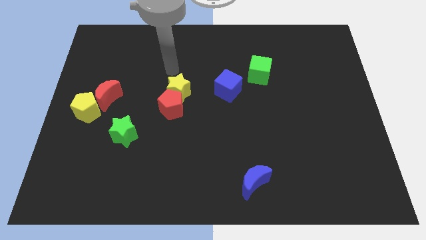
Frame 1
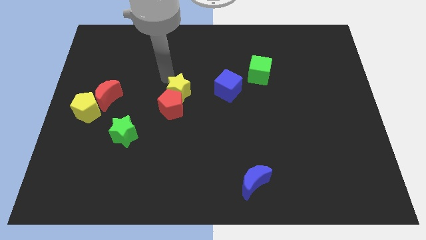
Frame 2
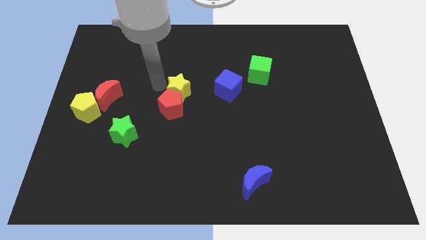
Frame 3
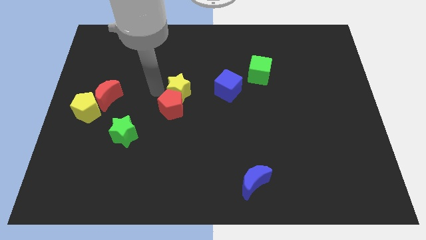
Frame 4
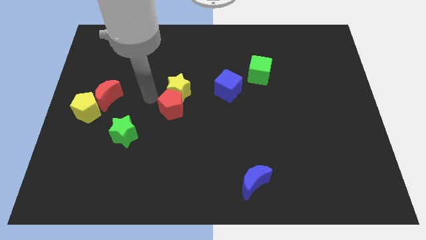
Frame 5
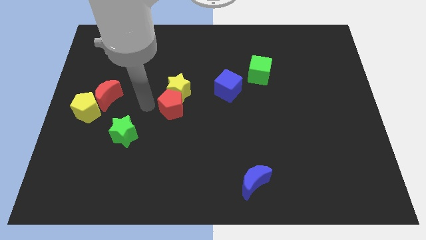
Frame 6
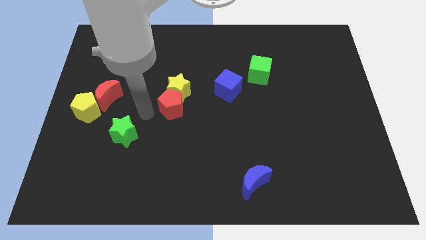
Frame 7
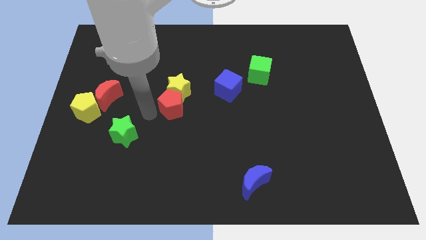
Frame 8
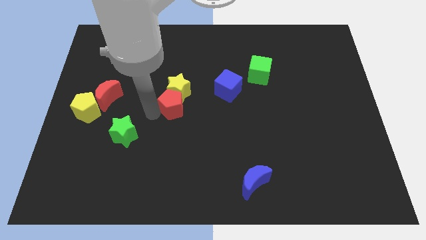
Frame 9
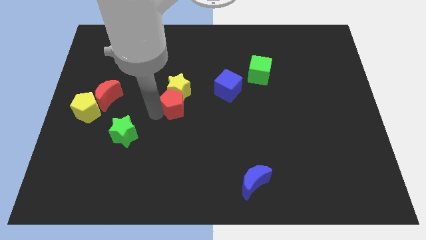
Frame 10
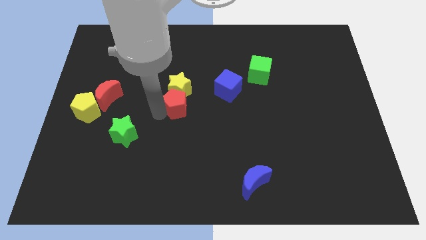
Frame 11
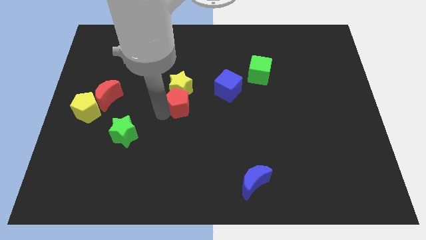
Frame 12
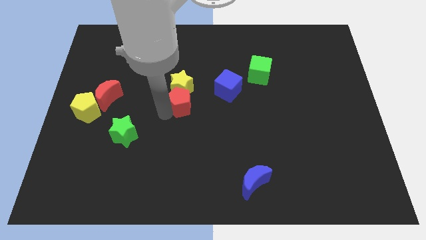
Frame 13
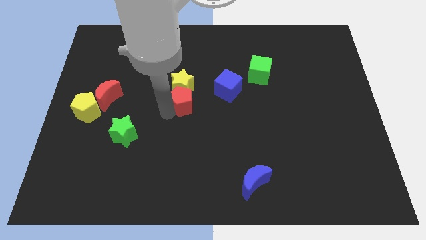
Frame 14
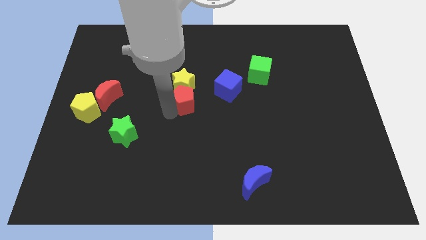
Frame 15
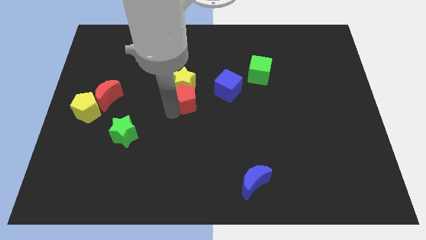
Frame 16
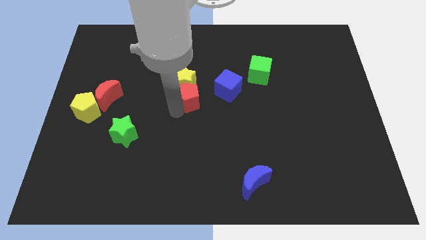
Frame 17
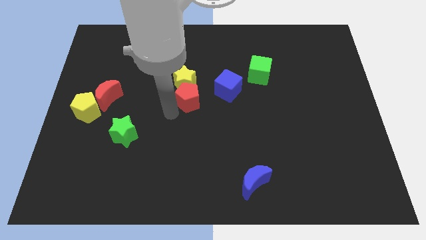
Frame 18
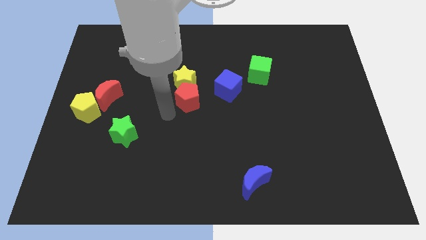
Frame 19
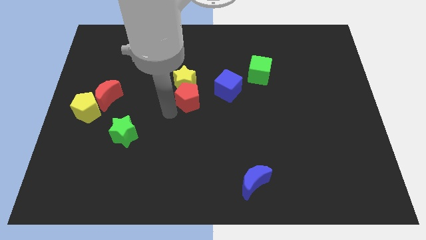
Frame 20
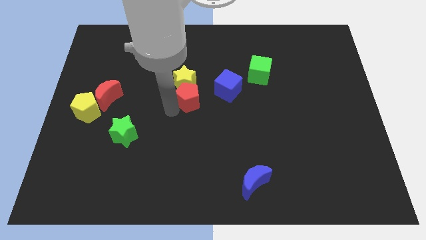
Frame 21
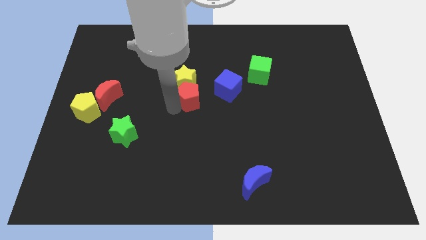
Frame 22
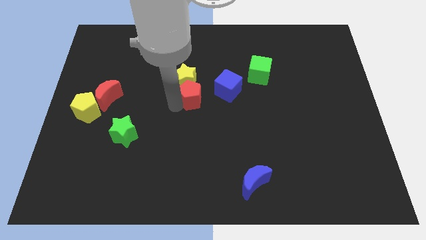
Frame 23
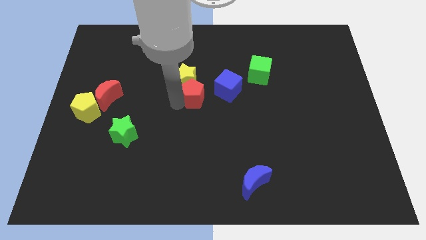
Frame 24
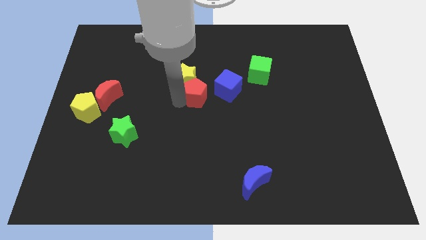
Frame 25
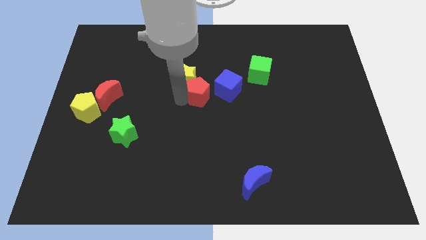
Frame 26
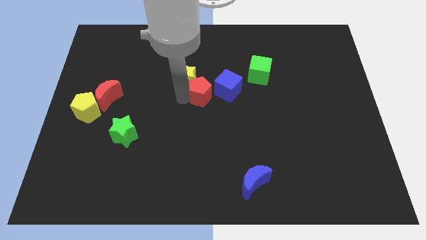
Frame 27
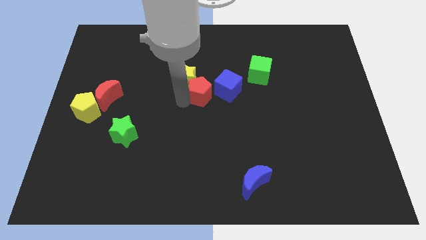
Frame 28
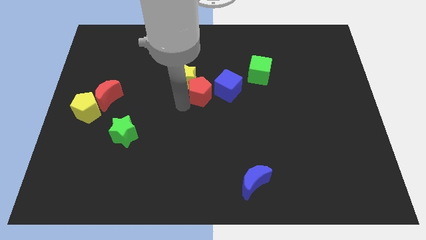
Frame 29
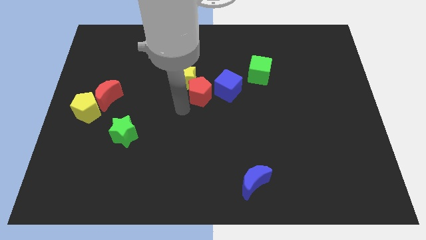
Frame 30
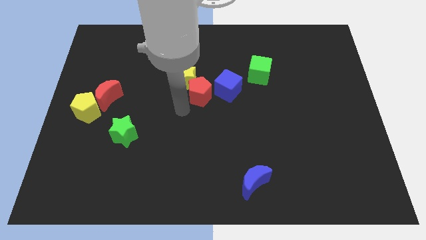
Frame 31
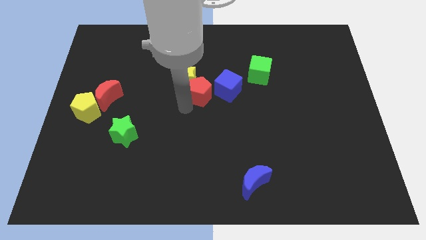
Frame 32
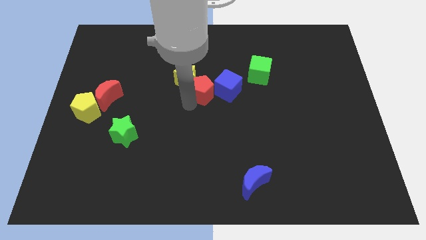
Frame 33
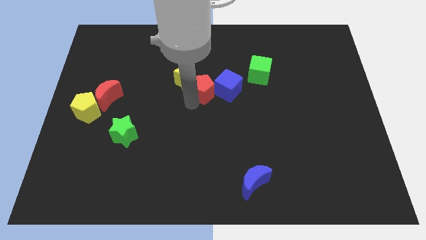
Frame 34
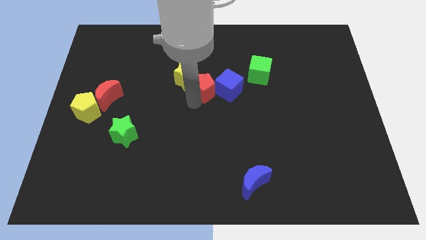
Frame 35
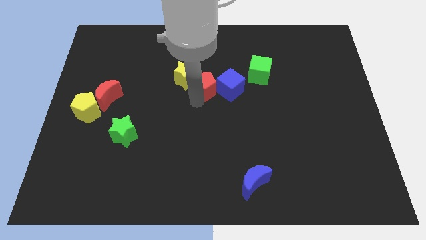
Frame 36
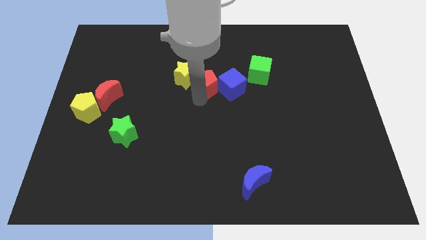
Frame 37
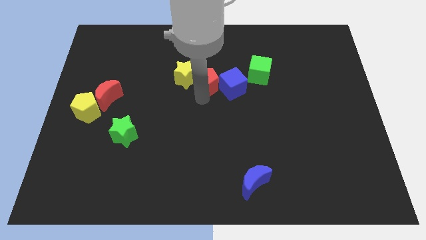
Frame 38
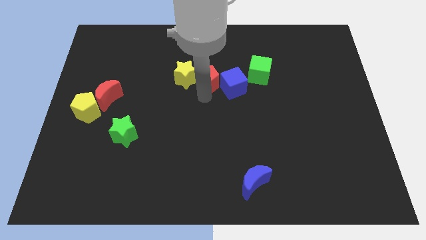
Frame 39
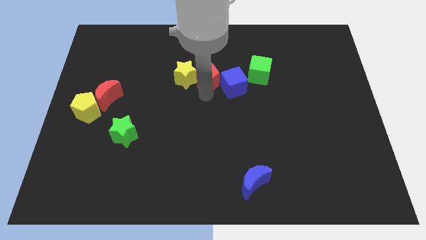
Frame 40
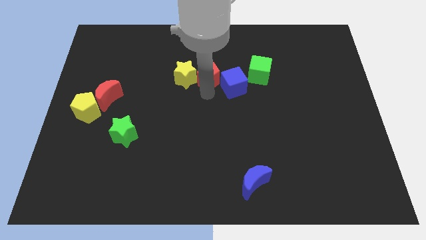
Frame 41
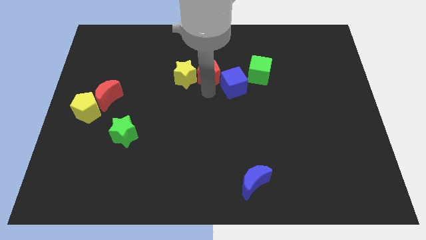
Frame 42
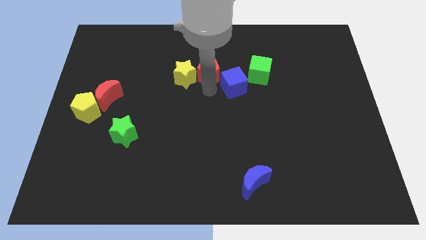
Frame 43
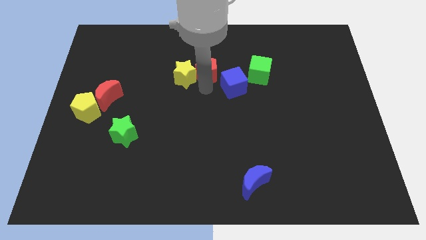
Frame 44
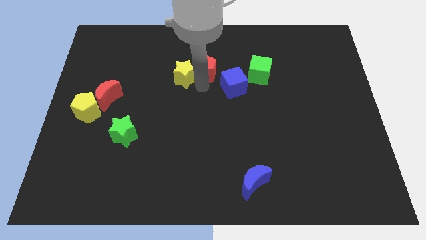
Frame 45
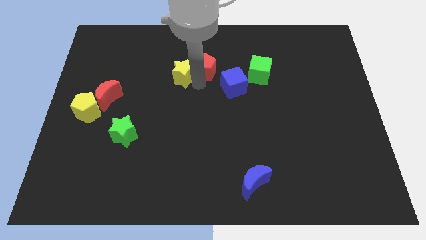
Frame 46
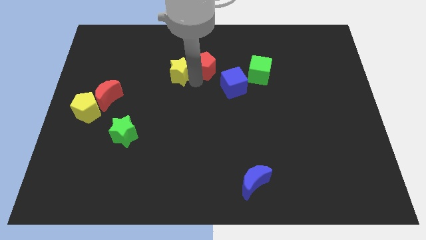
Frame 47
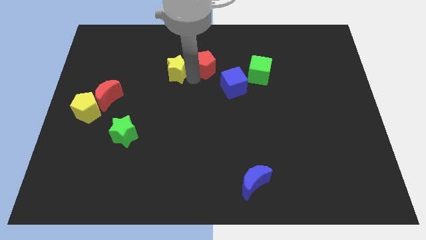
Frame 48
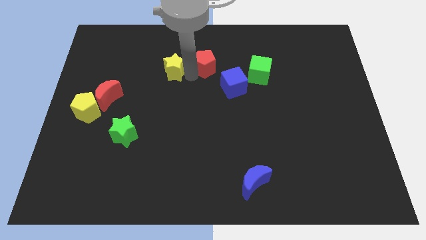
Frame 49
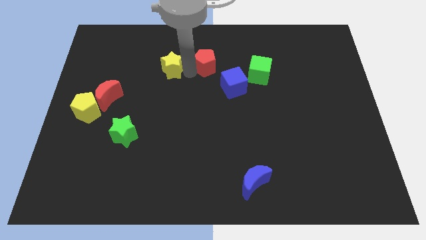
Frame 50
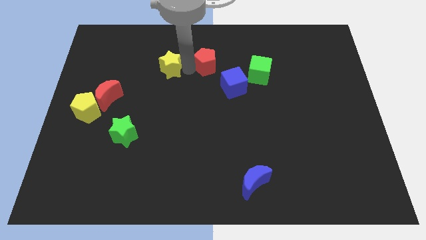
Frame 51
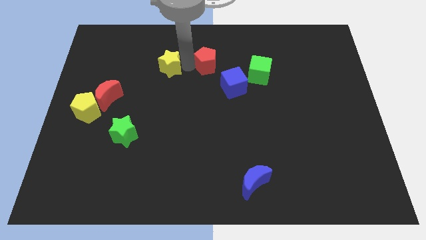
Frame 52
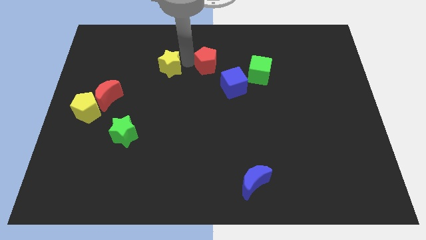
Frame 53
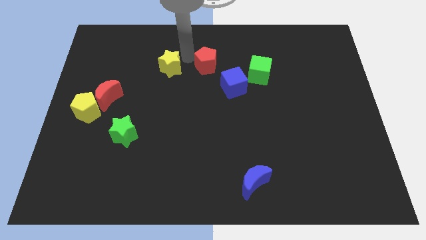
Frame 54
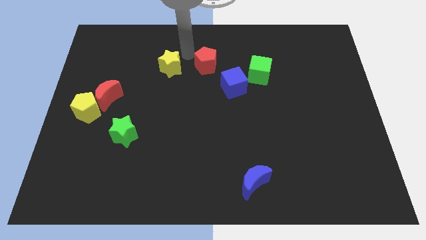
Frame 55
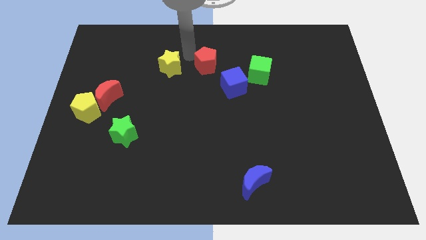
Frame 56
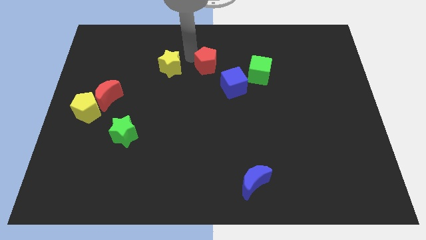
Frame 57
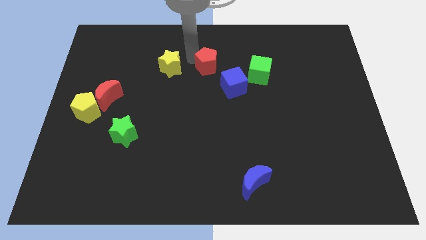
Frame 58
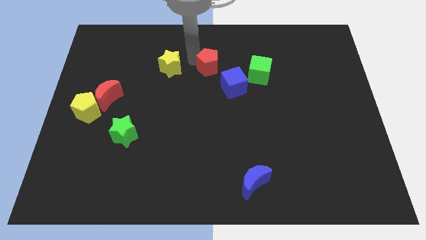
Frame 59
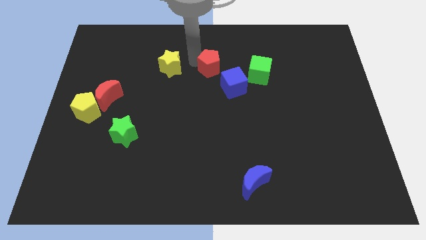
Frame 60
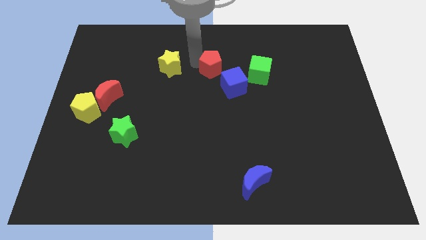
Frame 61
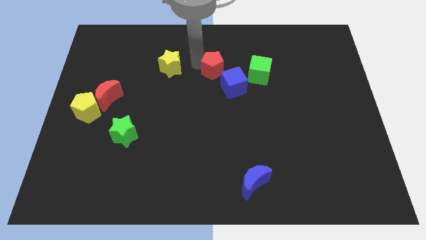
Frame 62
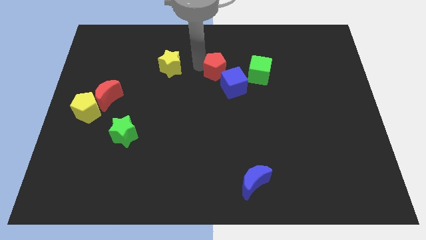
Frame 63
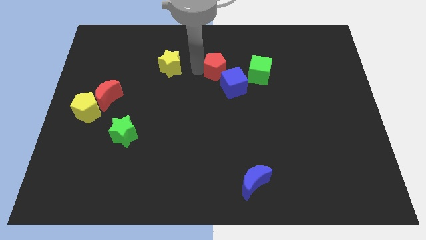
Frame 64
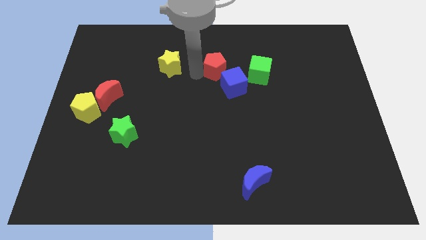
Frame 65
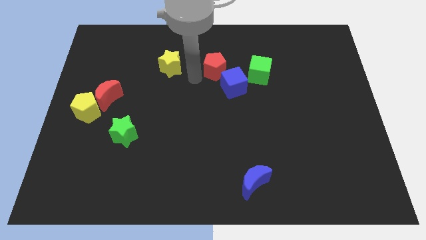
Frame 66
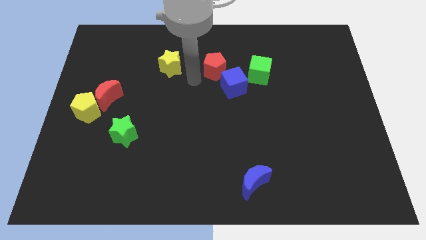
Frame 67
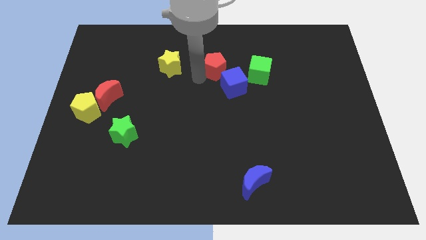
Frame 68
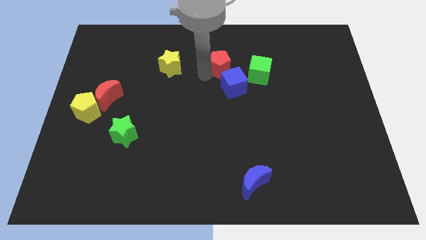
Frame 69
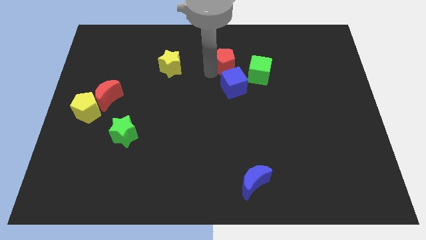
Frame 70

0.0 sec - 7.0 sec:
push the red pentagon to the top left side of the green cube

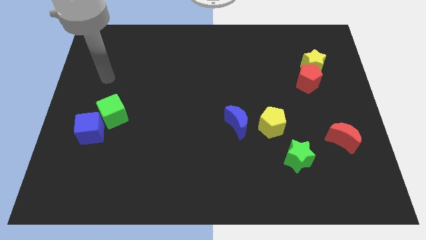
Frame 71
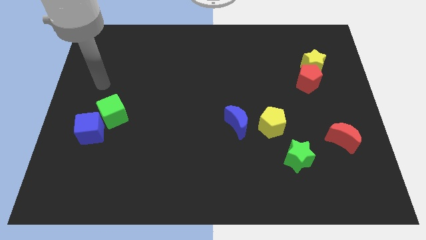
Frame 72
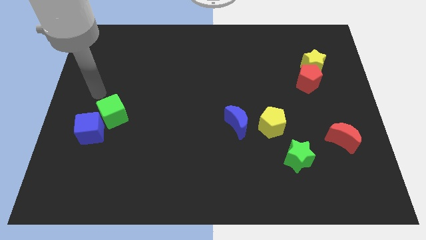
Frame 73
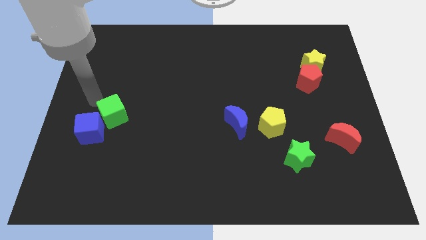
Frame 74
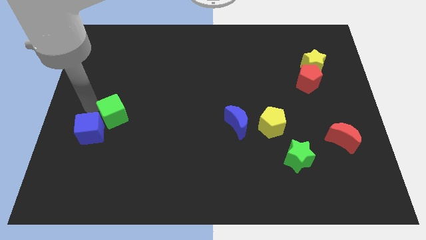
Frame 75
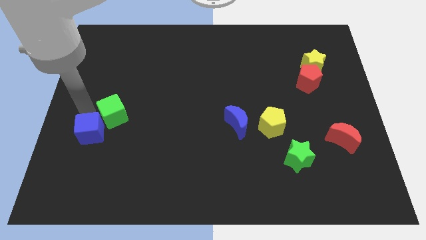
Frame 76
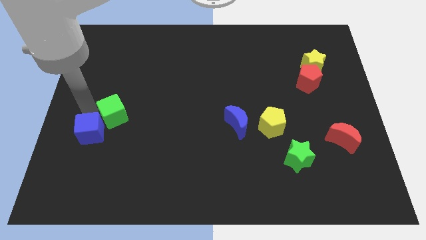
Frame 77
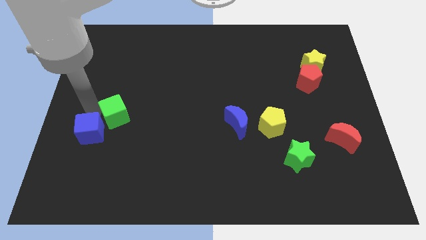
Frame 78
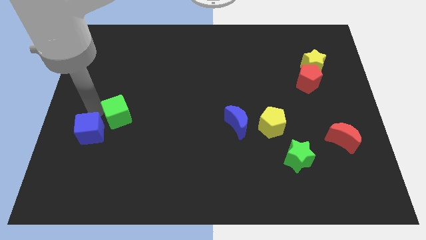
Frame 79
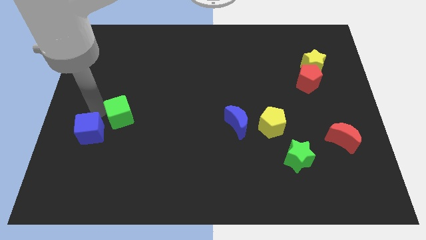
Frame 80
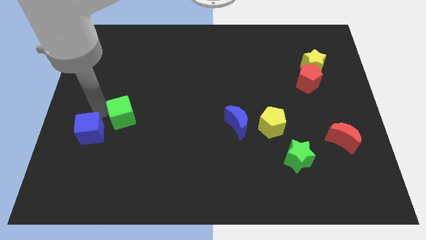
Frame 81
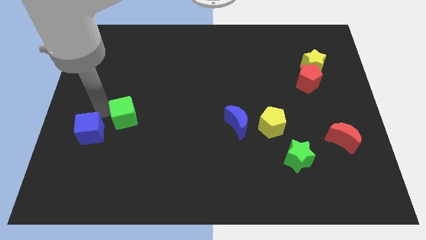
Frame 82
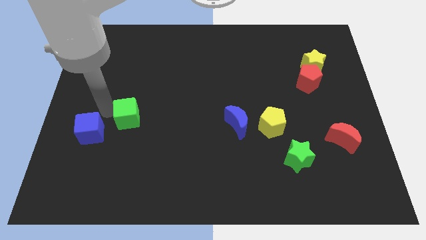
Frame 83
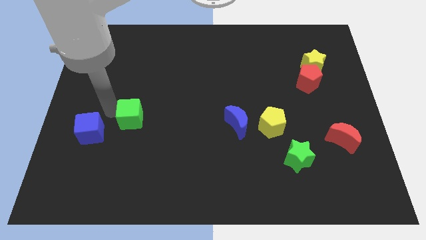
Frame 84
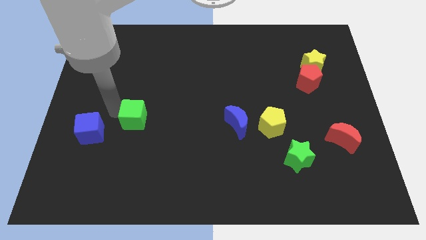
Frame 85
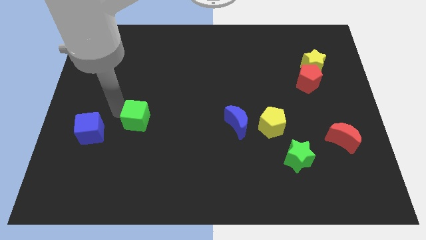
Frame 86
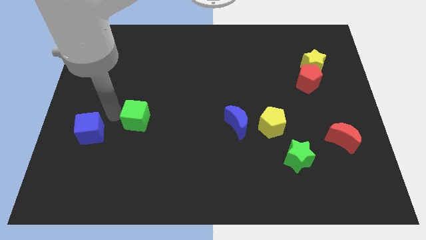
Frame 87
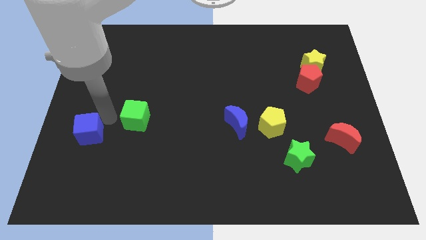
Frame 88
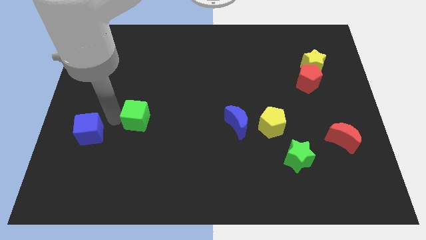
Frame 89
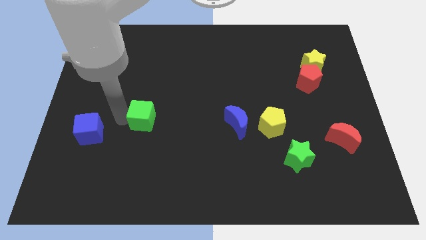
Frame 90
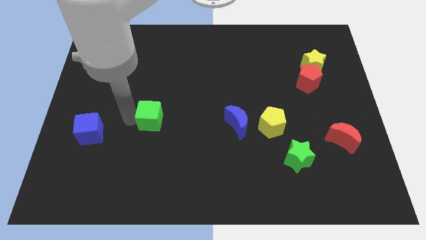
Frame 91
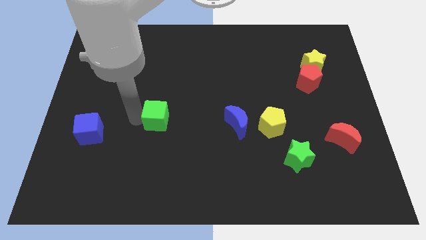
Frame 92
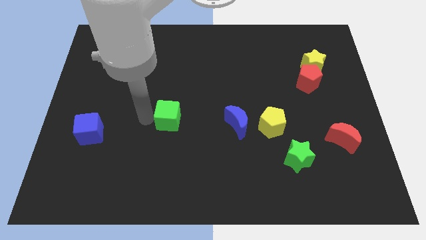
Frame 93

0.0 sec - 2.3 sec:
move the green cube to the left side of the blue moon
